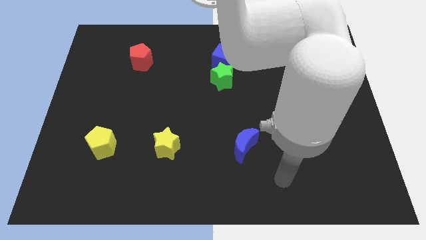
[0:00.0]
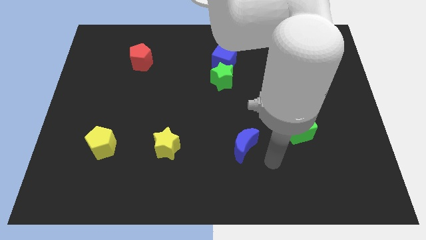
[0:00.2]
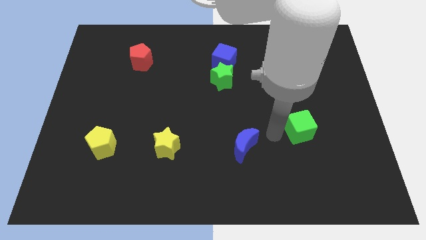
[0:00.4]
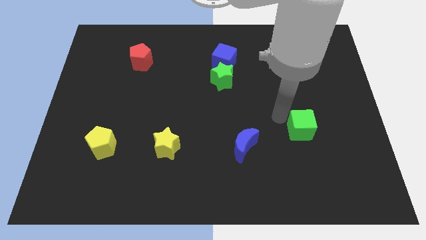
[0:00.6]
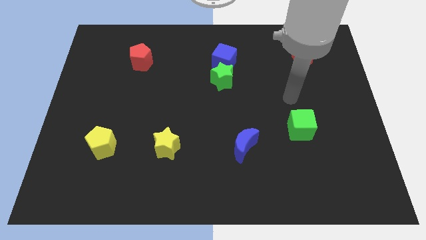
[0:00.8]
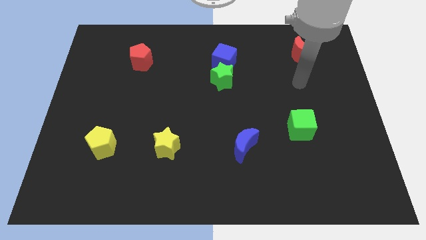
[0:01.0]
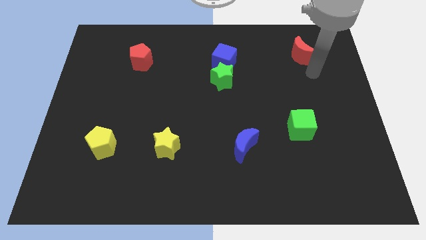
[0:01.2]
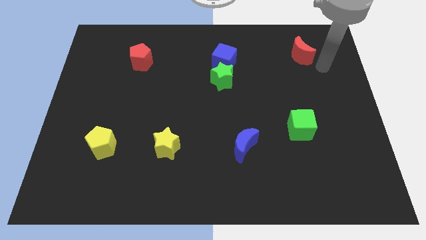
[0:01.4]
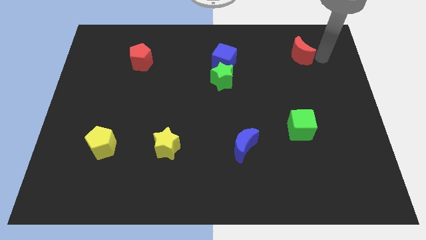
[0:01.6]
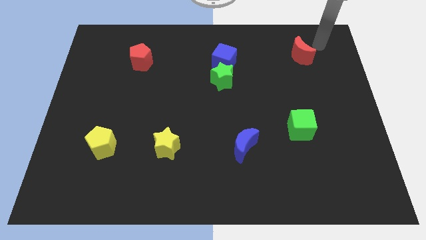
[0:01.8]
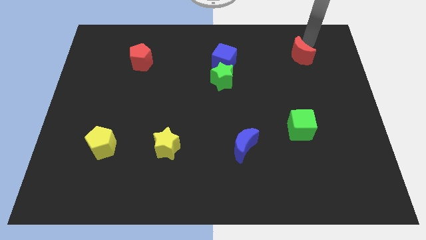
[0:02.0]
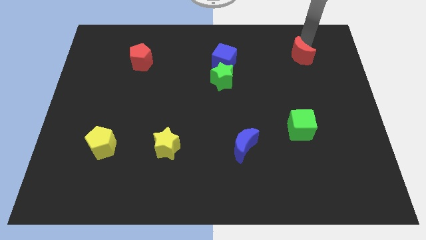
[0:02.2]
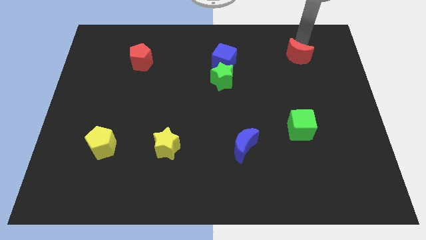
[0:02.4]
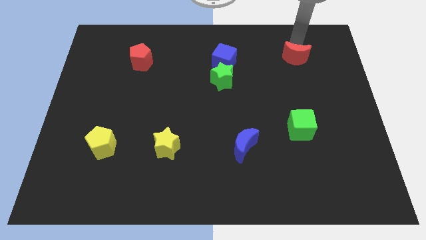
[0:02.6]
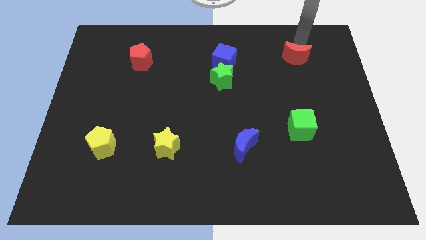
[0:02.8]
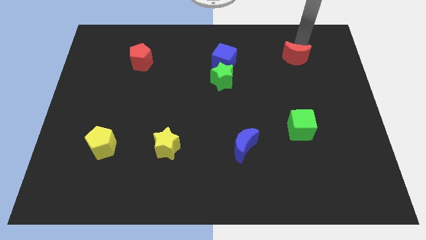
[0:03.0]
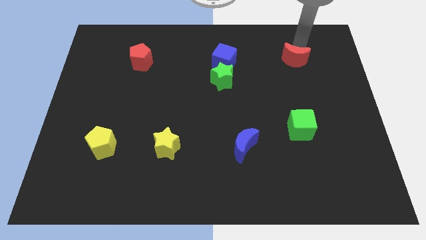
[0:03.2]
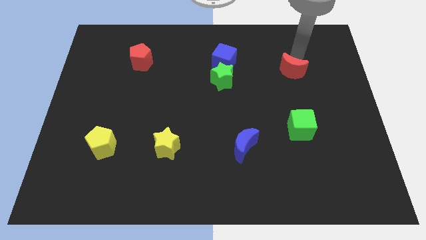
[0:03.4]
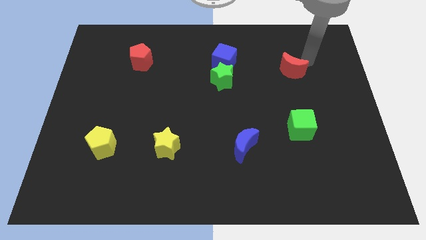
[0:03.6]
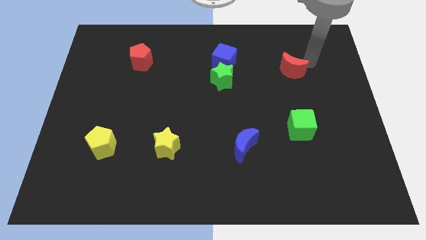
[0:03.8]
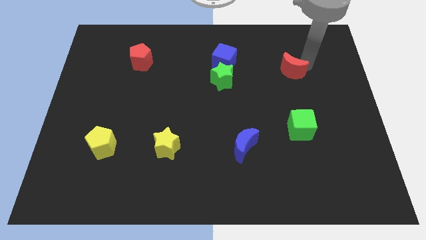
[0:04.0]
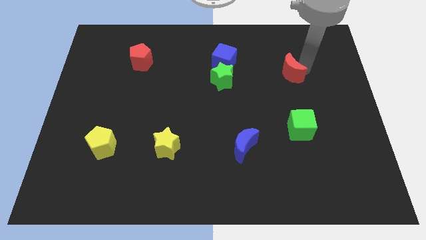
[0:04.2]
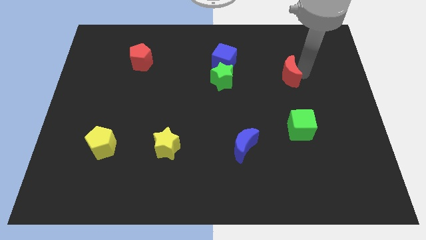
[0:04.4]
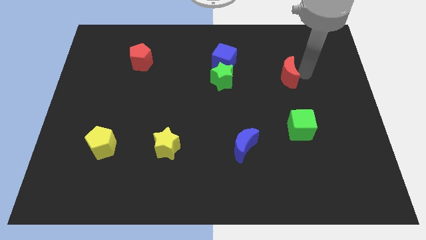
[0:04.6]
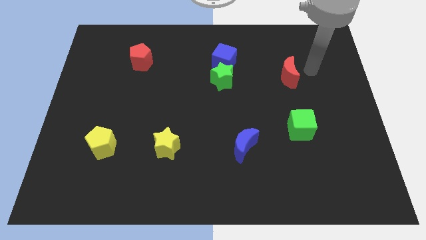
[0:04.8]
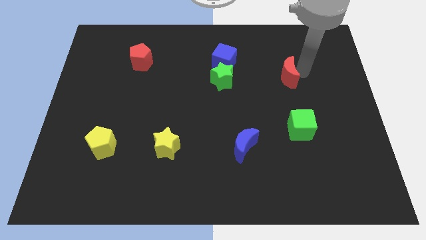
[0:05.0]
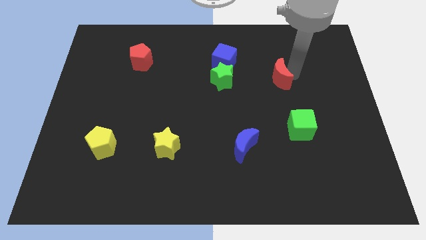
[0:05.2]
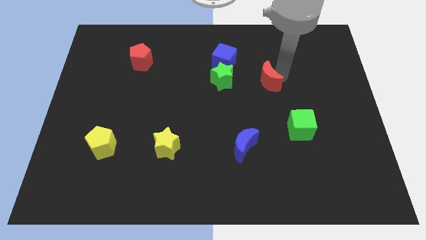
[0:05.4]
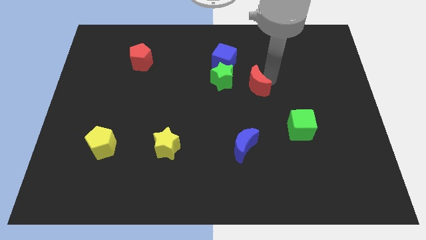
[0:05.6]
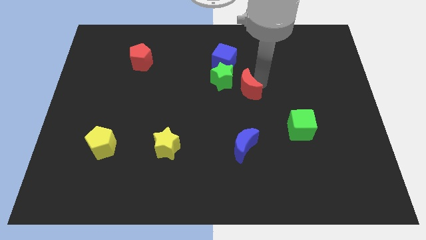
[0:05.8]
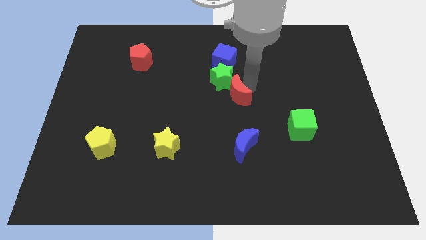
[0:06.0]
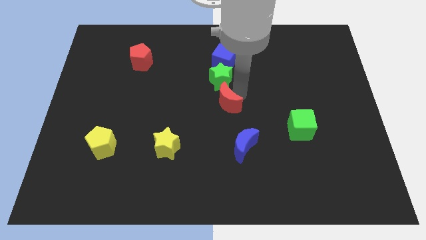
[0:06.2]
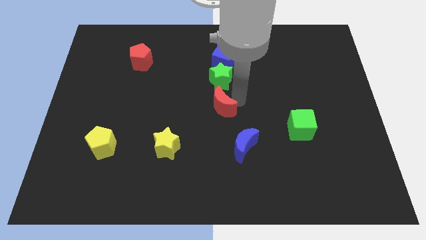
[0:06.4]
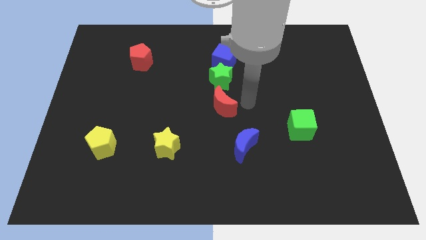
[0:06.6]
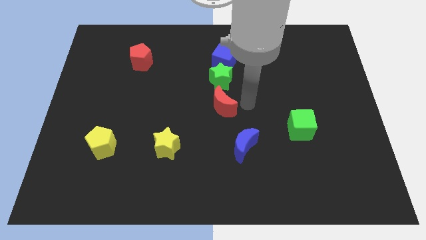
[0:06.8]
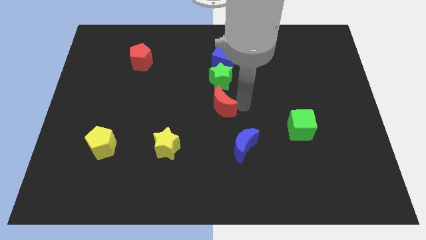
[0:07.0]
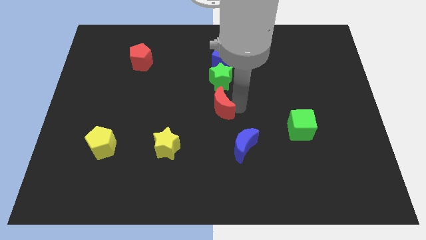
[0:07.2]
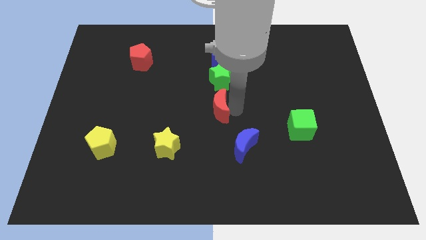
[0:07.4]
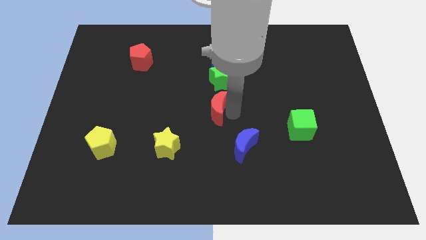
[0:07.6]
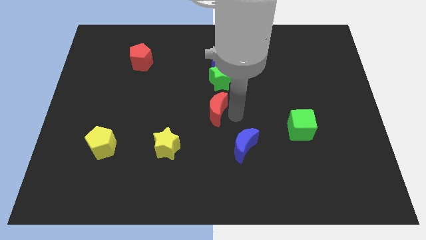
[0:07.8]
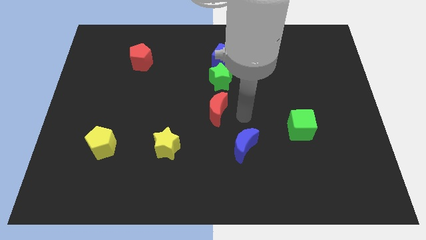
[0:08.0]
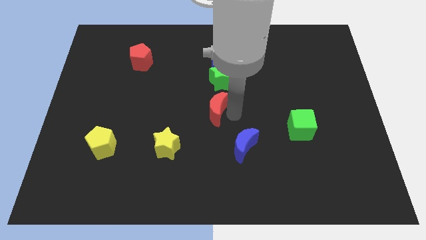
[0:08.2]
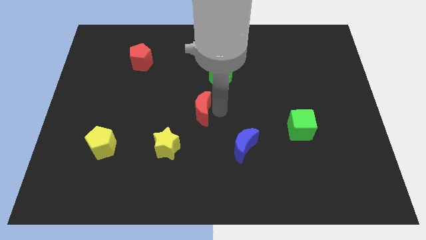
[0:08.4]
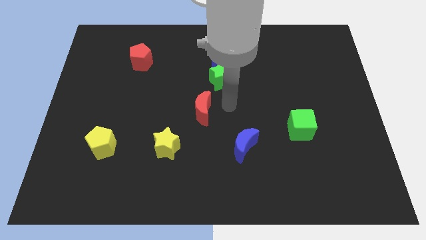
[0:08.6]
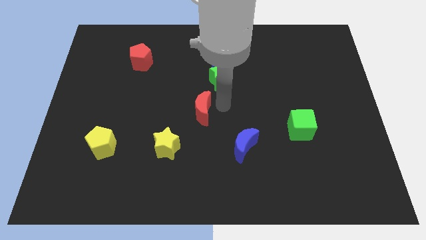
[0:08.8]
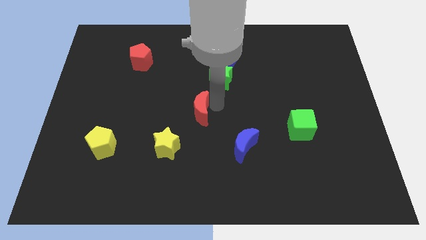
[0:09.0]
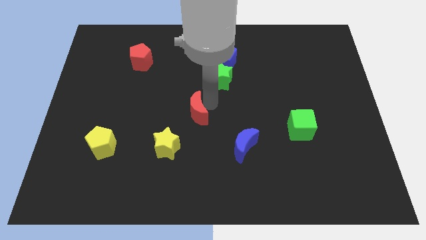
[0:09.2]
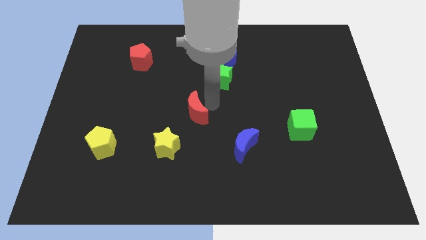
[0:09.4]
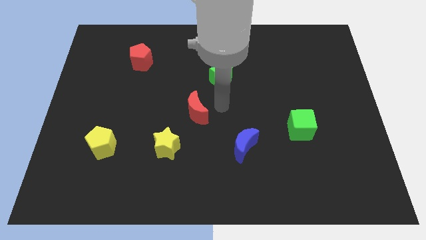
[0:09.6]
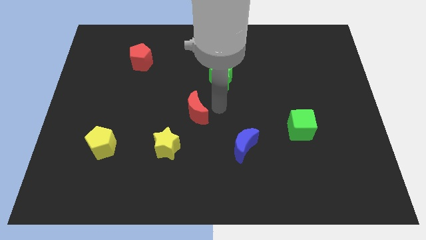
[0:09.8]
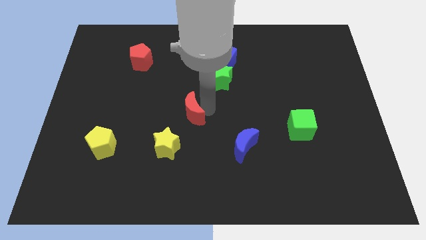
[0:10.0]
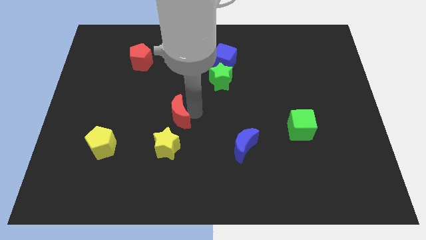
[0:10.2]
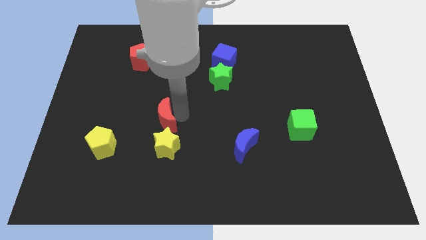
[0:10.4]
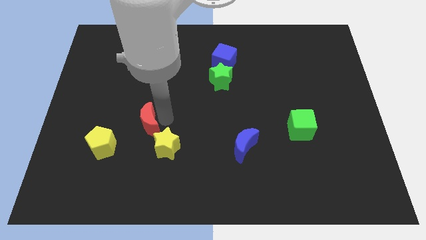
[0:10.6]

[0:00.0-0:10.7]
move the red moon diagonally up and to the right of the yellow pentagon

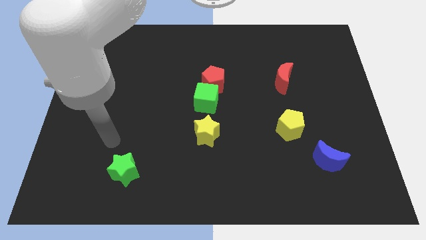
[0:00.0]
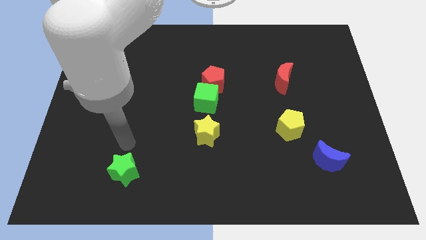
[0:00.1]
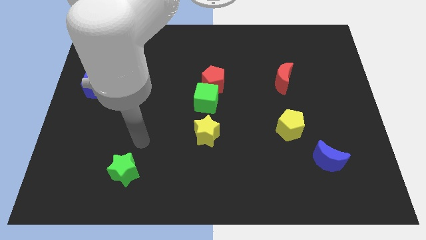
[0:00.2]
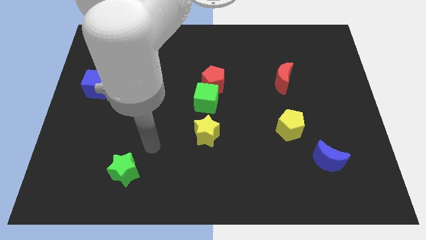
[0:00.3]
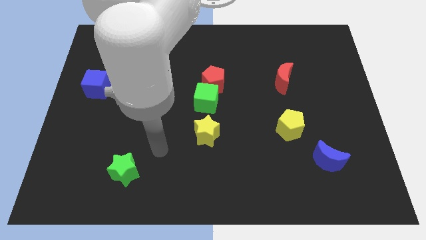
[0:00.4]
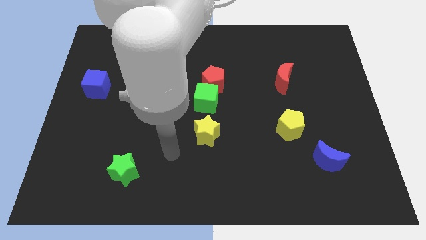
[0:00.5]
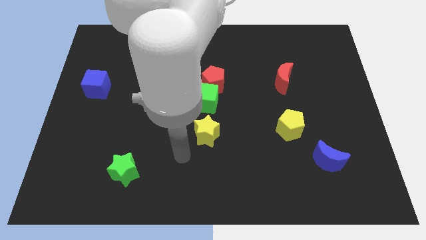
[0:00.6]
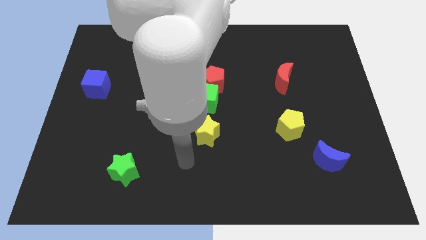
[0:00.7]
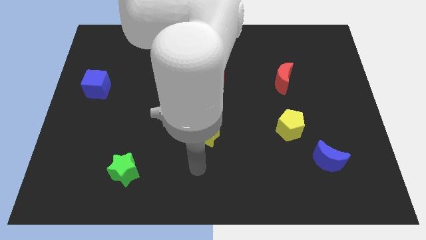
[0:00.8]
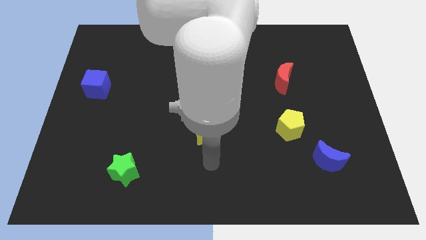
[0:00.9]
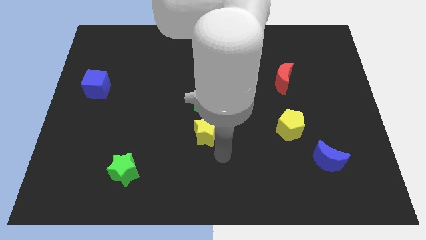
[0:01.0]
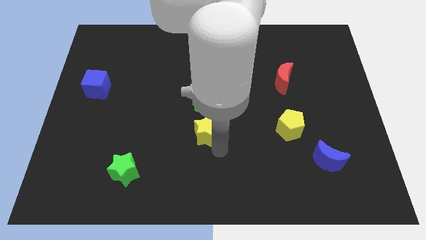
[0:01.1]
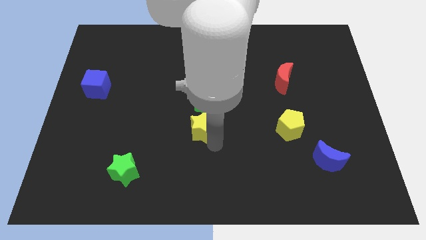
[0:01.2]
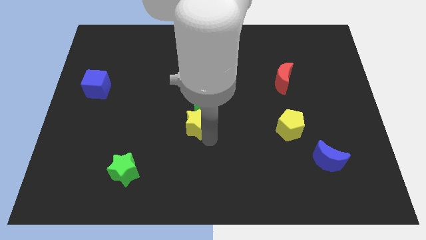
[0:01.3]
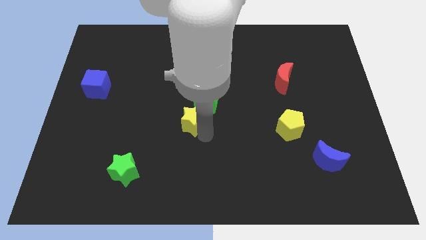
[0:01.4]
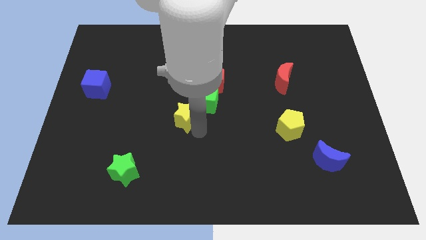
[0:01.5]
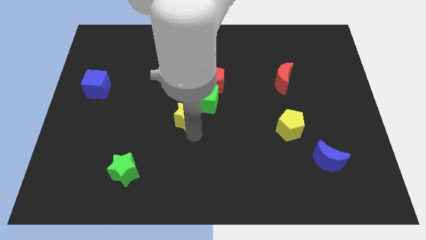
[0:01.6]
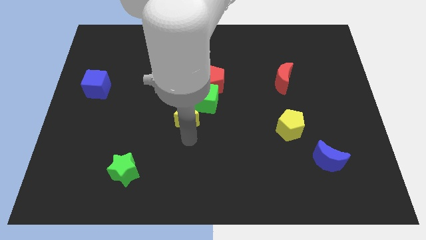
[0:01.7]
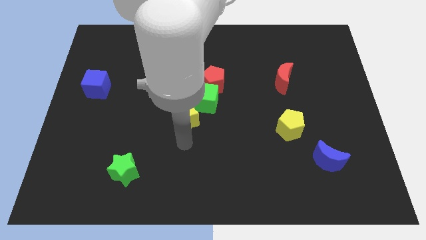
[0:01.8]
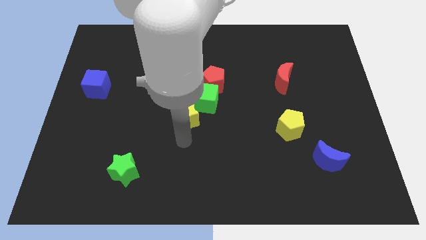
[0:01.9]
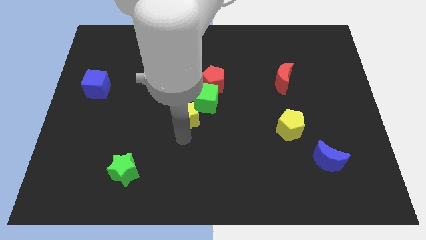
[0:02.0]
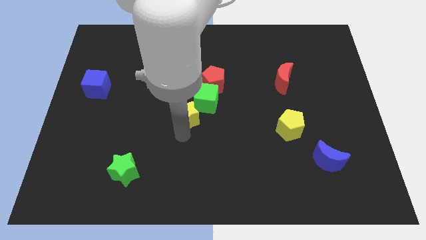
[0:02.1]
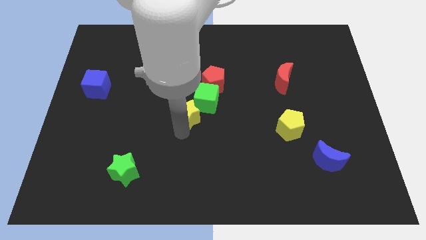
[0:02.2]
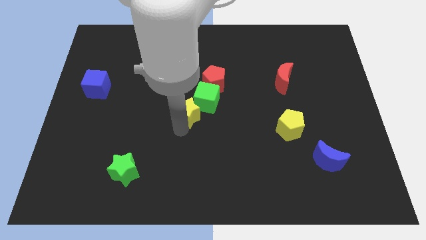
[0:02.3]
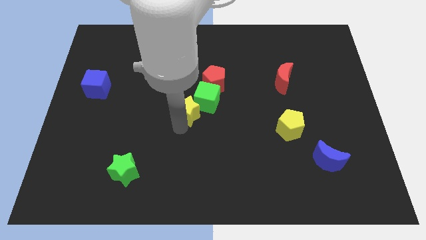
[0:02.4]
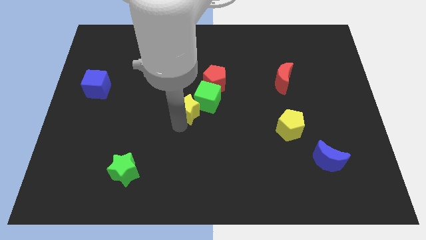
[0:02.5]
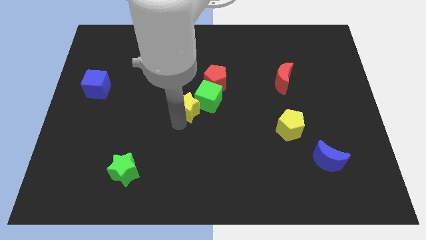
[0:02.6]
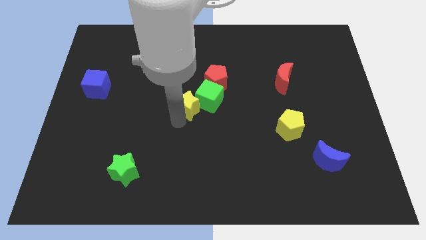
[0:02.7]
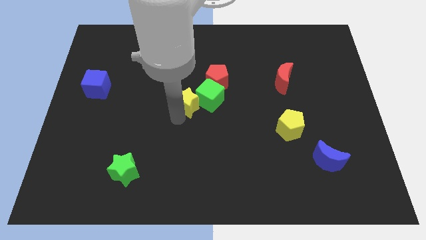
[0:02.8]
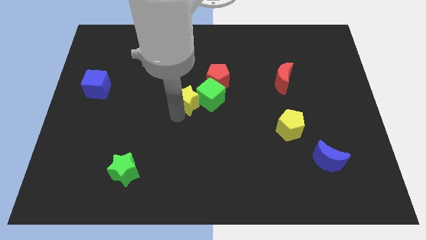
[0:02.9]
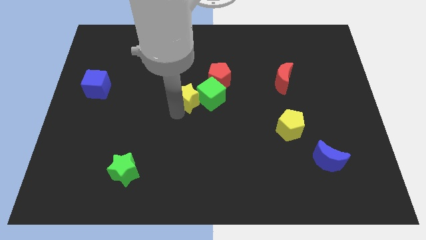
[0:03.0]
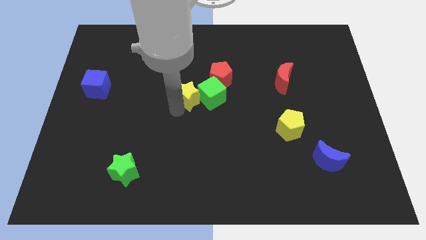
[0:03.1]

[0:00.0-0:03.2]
push the yellow star diagonally up and to the left of the green cube
